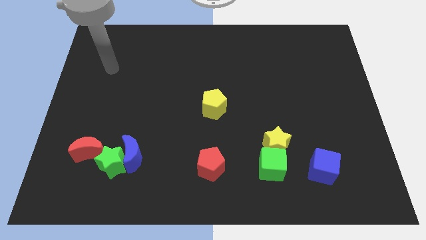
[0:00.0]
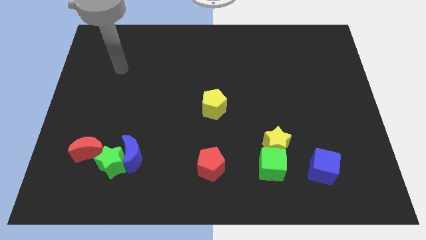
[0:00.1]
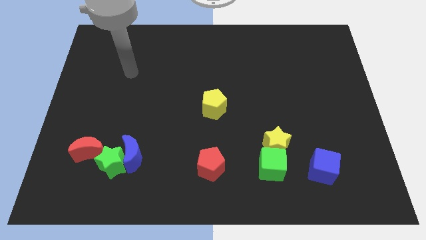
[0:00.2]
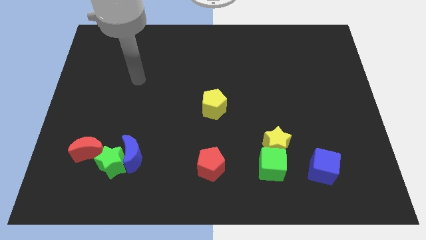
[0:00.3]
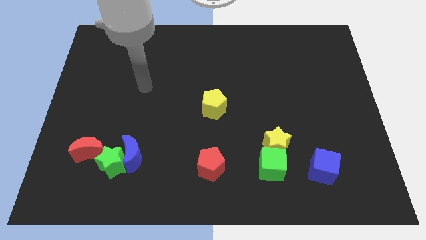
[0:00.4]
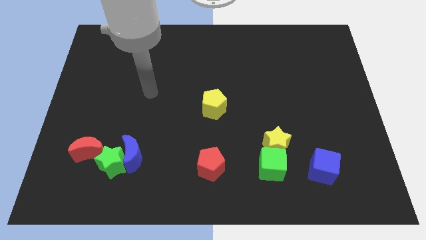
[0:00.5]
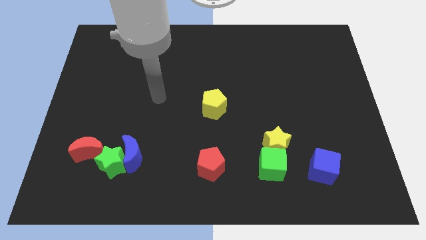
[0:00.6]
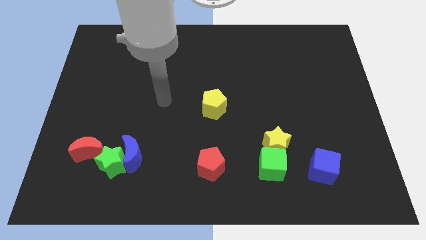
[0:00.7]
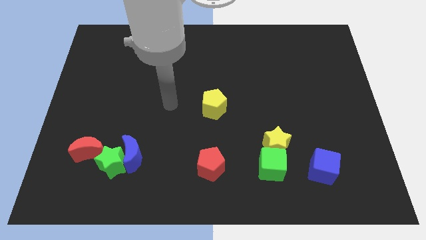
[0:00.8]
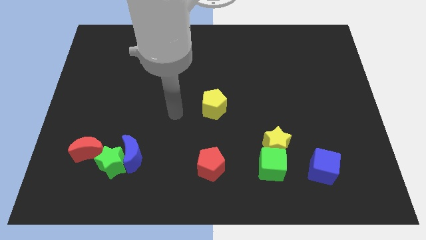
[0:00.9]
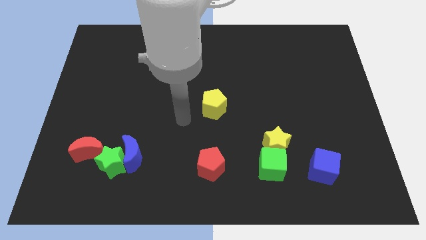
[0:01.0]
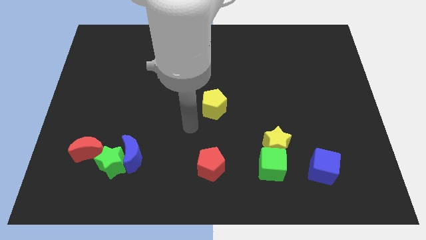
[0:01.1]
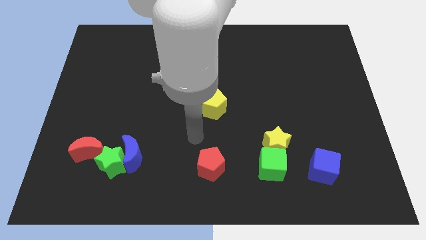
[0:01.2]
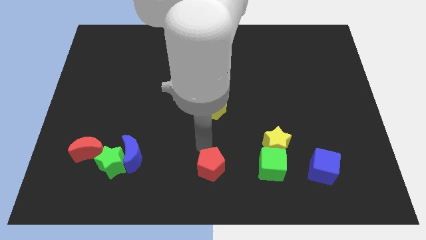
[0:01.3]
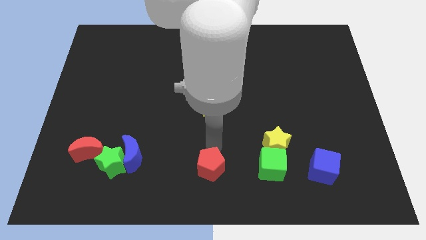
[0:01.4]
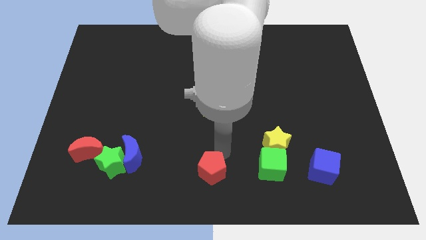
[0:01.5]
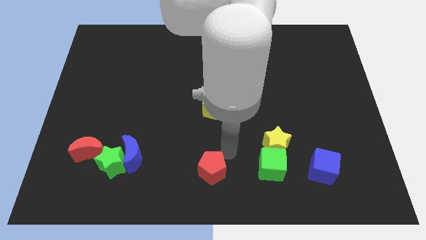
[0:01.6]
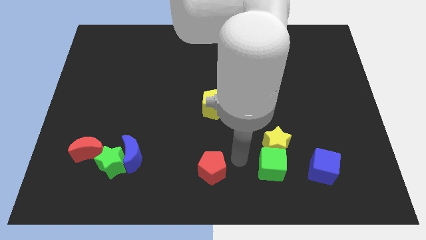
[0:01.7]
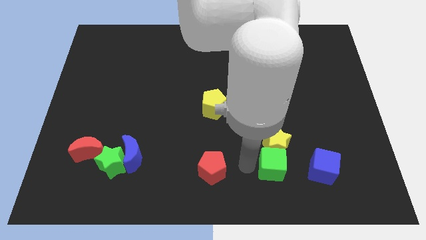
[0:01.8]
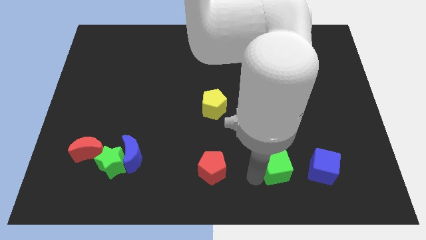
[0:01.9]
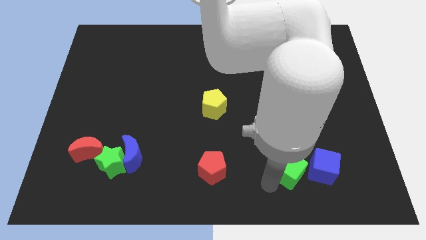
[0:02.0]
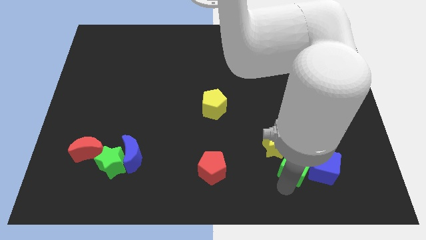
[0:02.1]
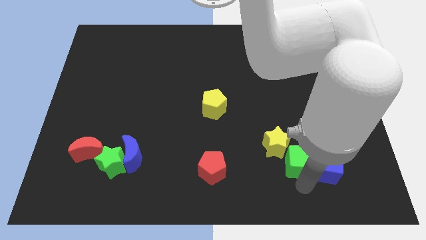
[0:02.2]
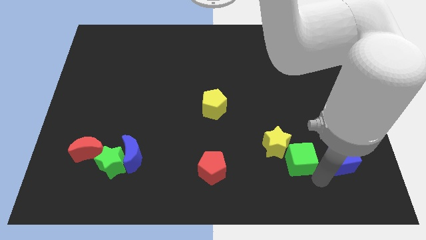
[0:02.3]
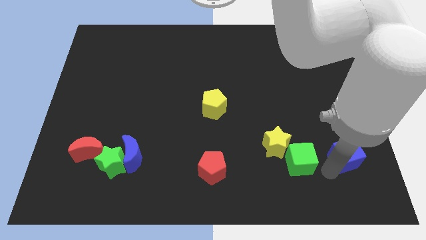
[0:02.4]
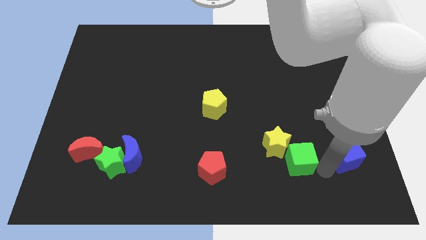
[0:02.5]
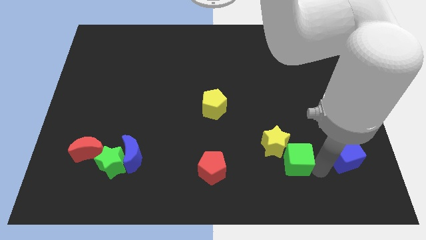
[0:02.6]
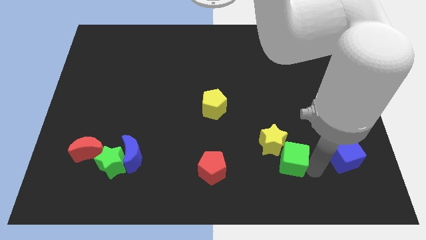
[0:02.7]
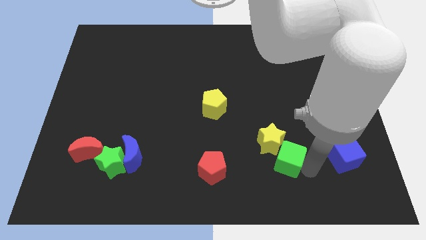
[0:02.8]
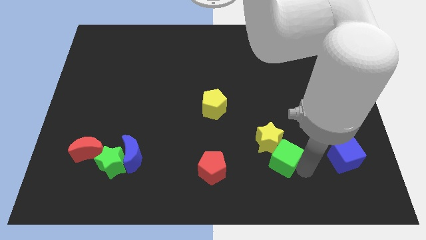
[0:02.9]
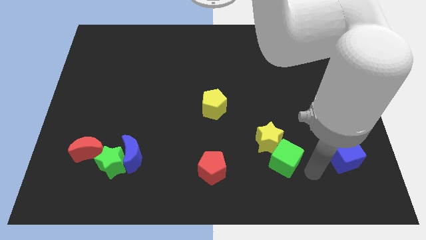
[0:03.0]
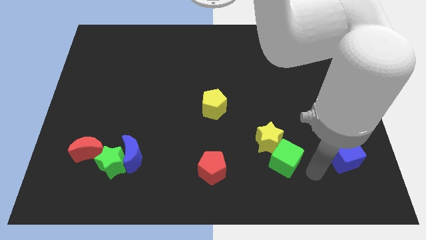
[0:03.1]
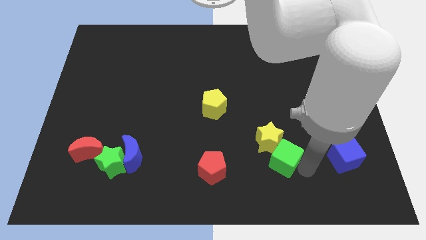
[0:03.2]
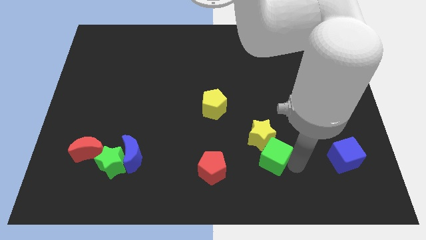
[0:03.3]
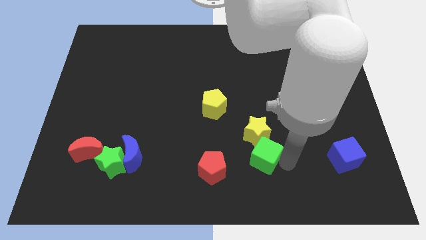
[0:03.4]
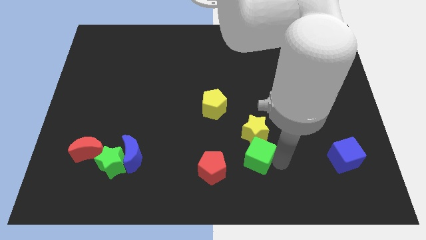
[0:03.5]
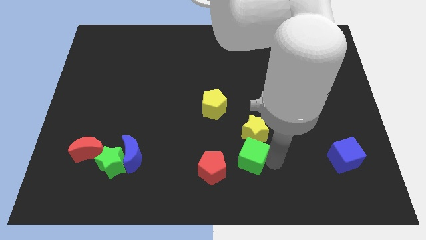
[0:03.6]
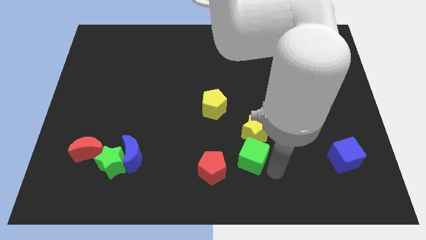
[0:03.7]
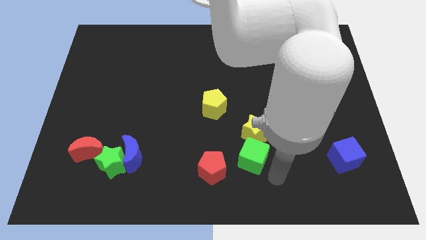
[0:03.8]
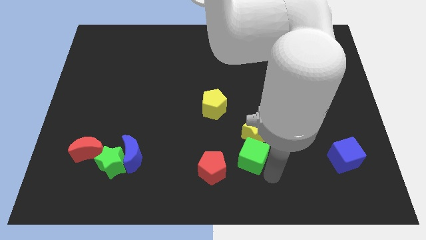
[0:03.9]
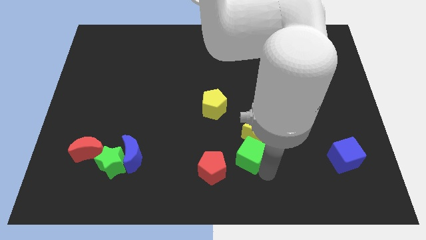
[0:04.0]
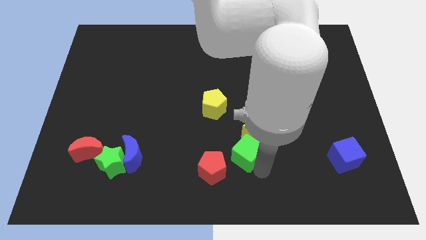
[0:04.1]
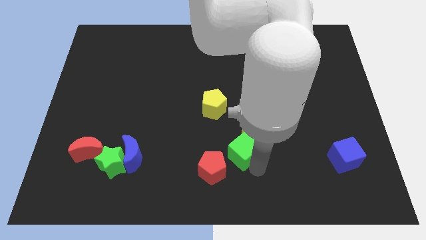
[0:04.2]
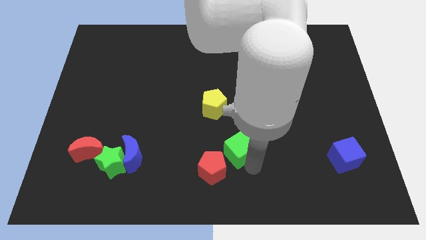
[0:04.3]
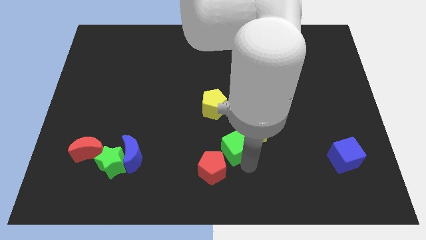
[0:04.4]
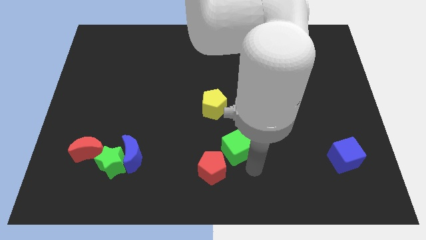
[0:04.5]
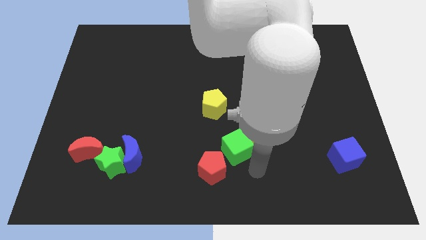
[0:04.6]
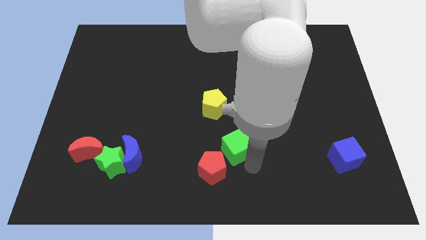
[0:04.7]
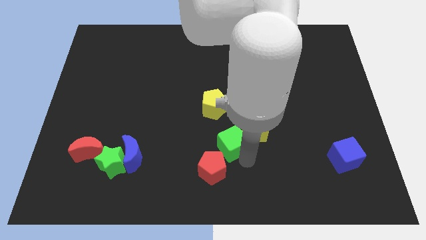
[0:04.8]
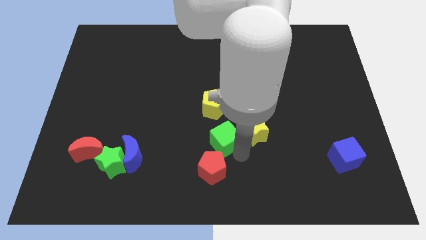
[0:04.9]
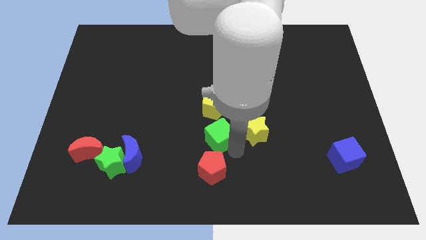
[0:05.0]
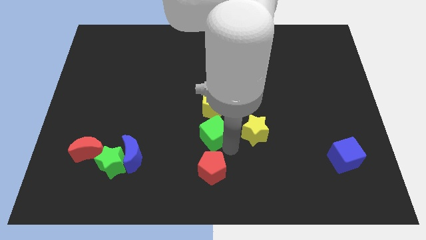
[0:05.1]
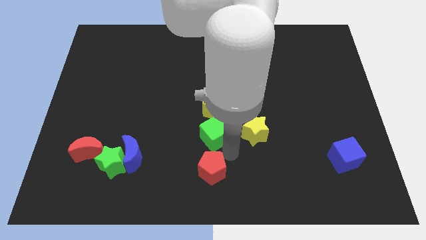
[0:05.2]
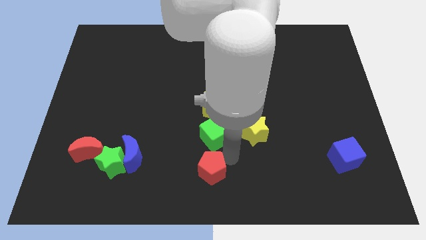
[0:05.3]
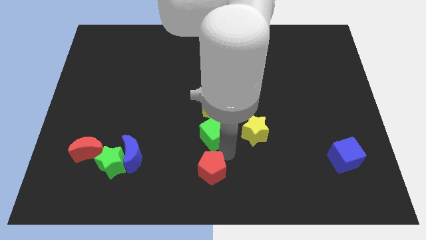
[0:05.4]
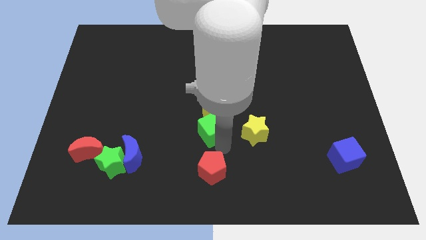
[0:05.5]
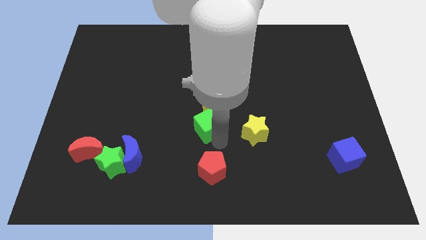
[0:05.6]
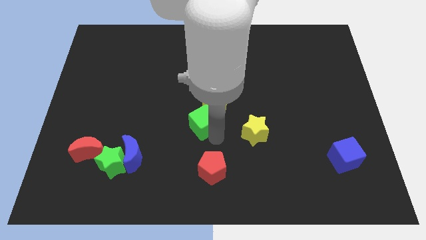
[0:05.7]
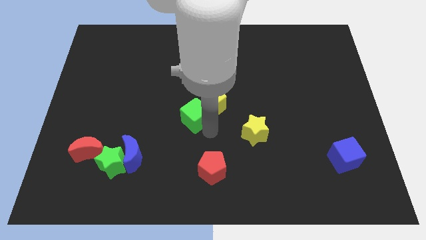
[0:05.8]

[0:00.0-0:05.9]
move the green cube up and to the left diagonally

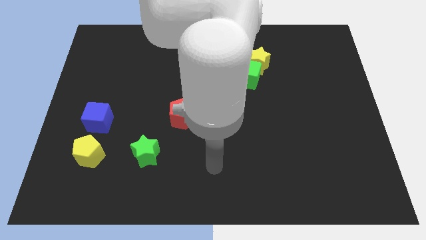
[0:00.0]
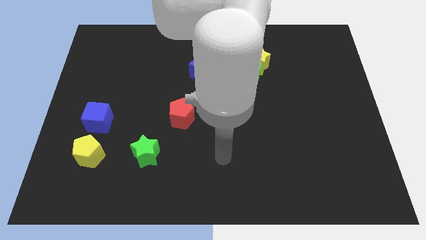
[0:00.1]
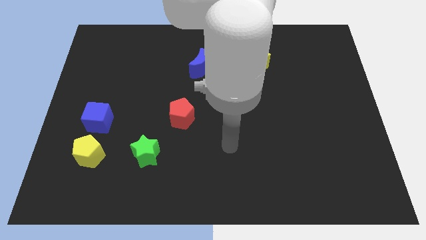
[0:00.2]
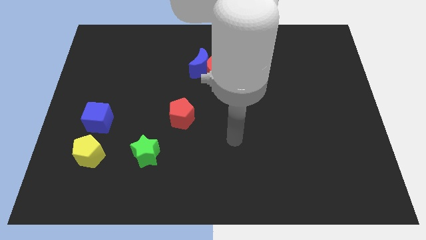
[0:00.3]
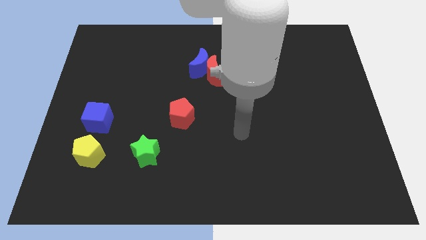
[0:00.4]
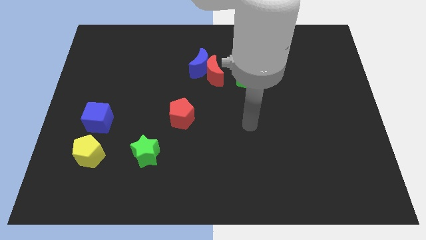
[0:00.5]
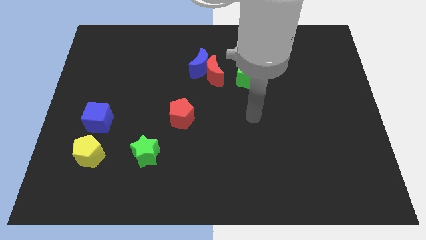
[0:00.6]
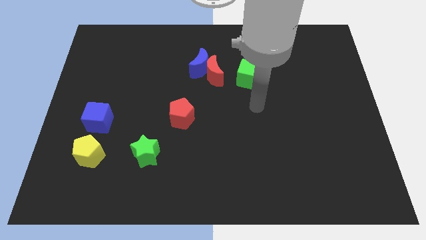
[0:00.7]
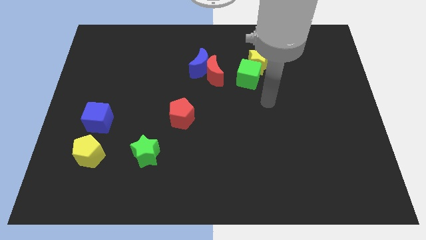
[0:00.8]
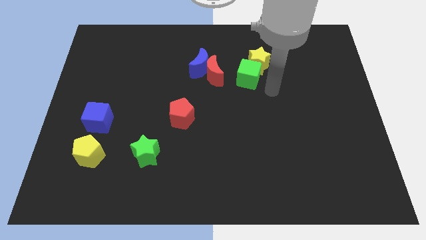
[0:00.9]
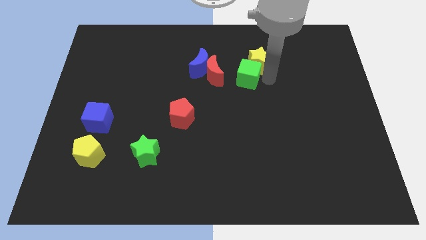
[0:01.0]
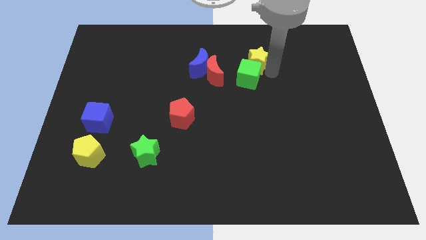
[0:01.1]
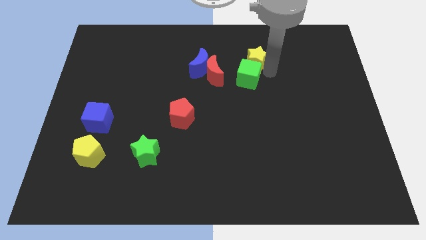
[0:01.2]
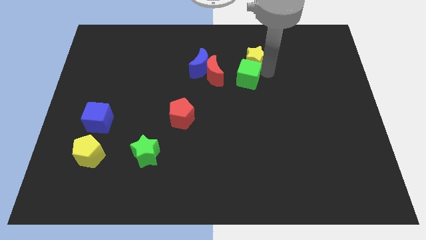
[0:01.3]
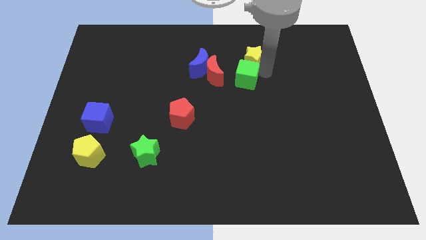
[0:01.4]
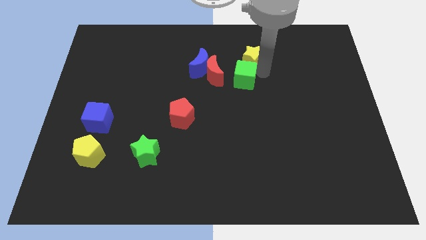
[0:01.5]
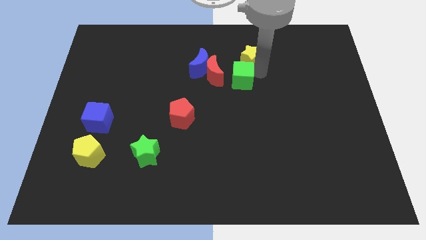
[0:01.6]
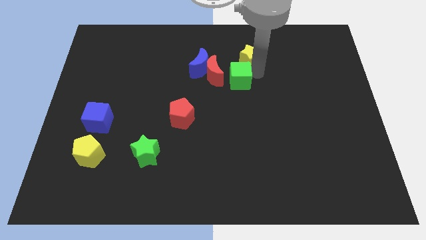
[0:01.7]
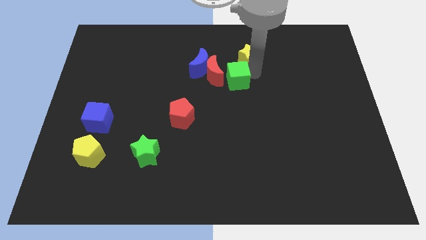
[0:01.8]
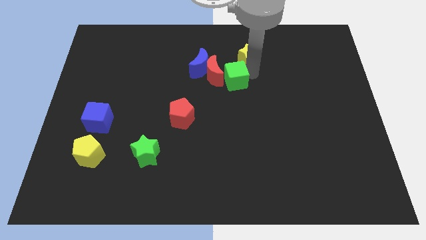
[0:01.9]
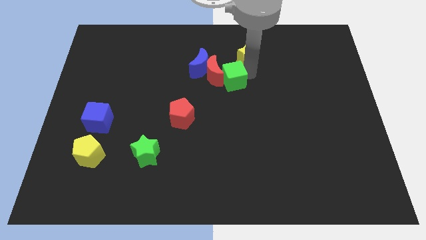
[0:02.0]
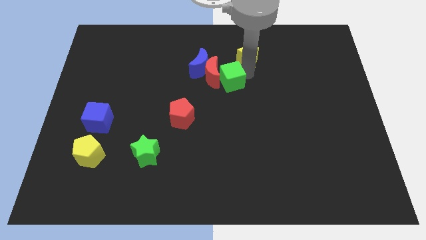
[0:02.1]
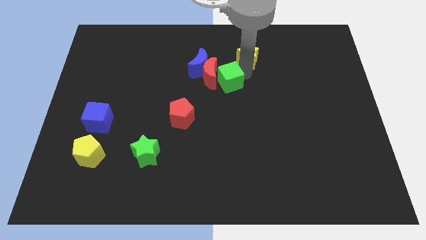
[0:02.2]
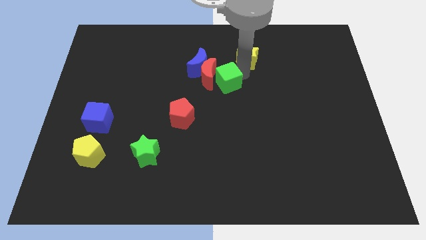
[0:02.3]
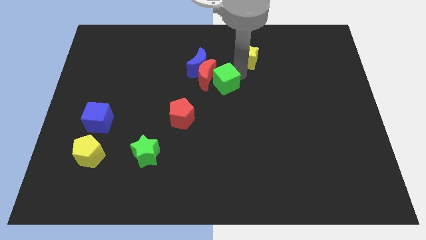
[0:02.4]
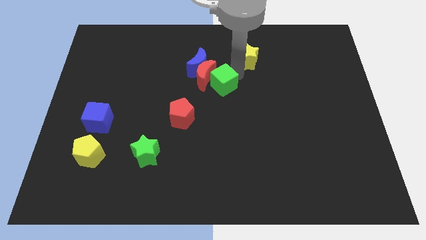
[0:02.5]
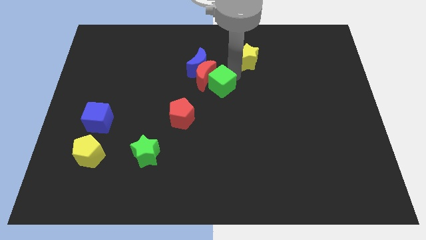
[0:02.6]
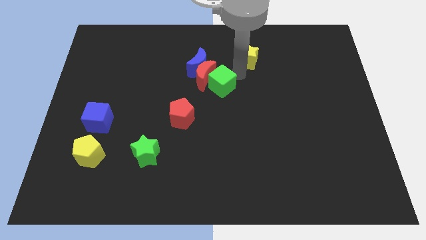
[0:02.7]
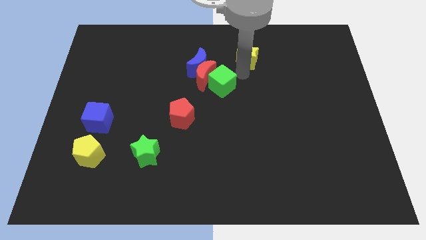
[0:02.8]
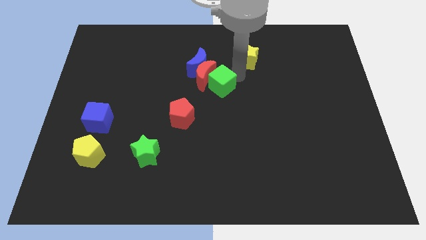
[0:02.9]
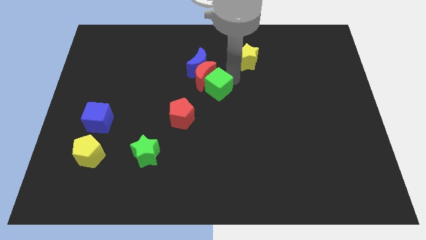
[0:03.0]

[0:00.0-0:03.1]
slightly move the green cube left
